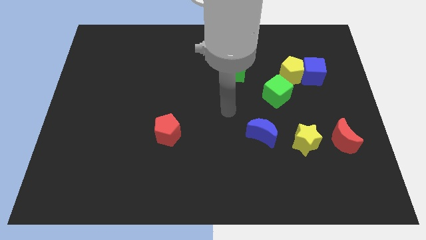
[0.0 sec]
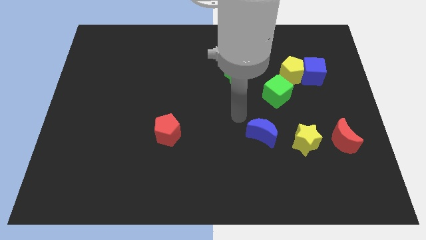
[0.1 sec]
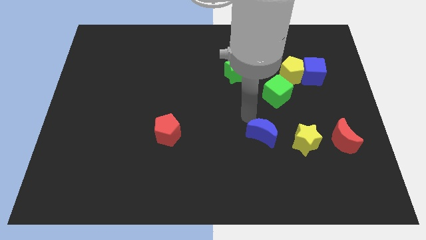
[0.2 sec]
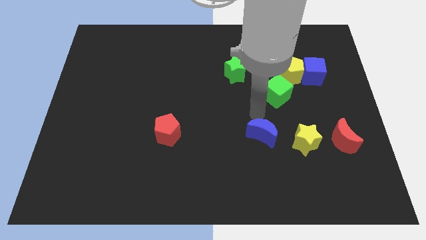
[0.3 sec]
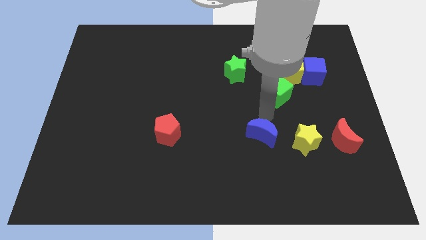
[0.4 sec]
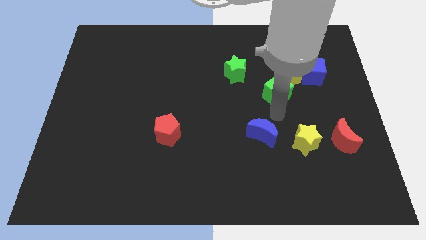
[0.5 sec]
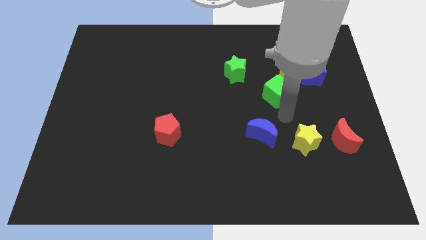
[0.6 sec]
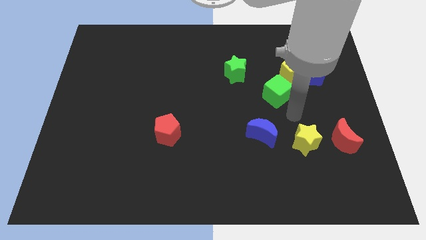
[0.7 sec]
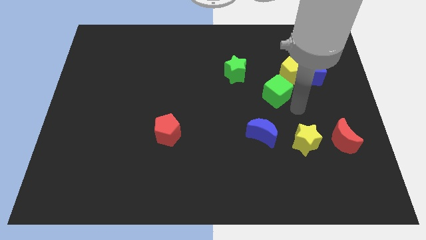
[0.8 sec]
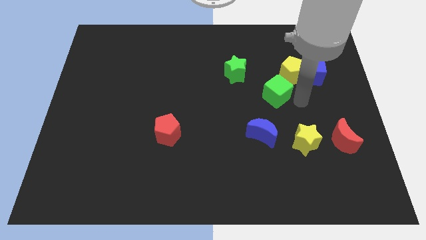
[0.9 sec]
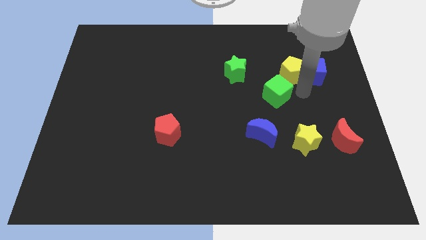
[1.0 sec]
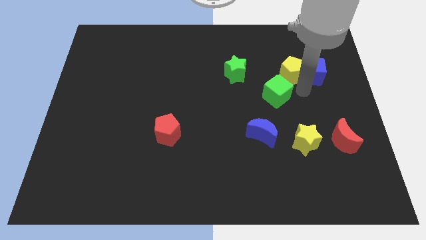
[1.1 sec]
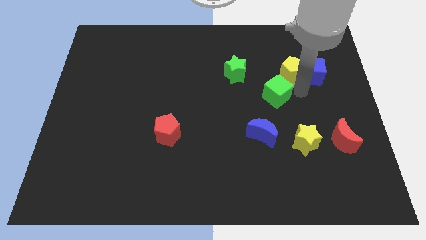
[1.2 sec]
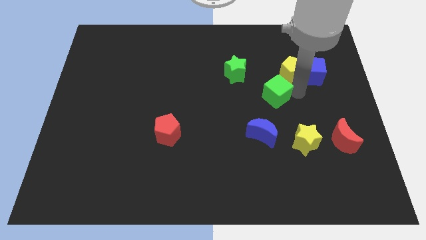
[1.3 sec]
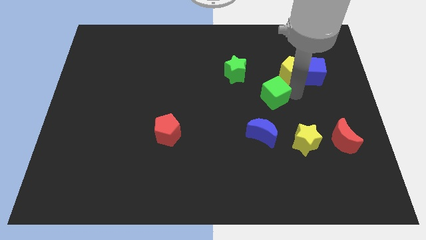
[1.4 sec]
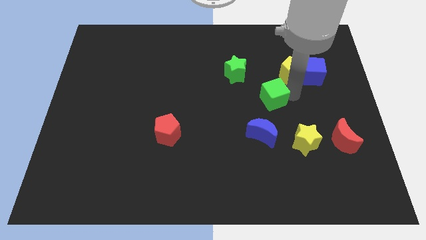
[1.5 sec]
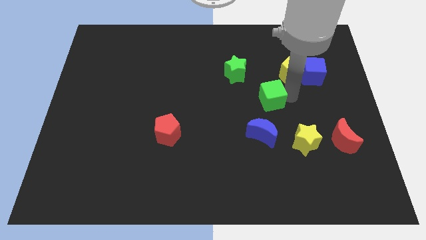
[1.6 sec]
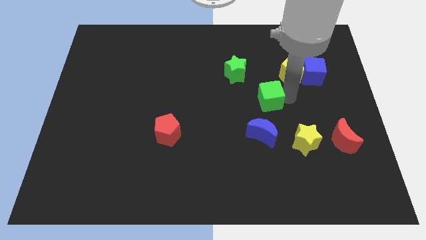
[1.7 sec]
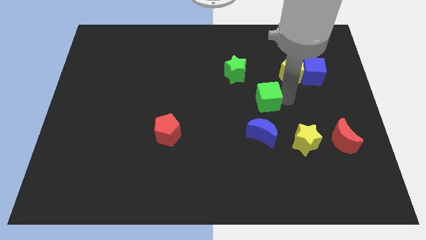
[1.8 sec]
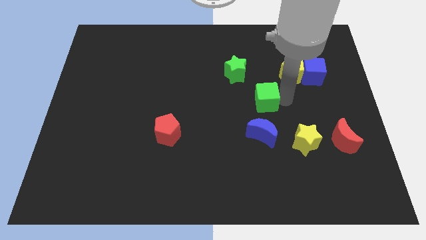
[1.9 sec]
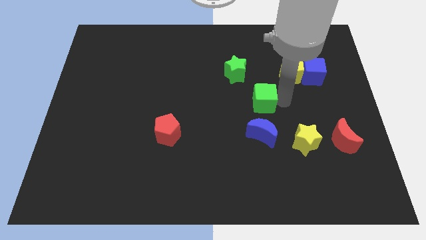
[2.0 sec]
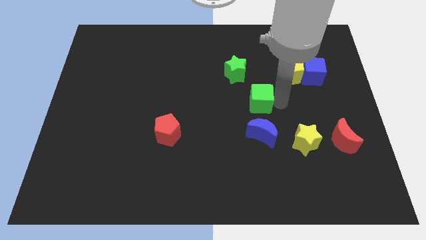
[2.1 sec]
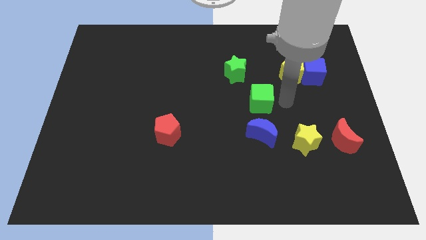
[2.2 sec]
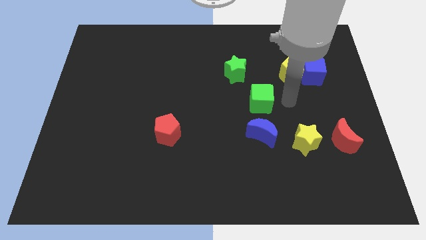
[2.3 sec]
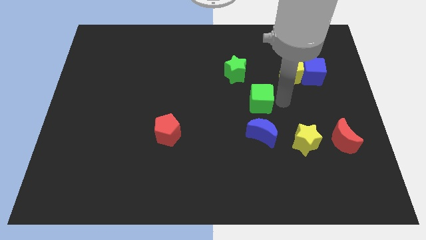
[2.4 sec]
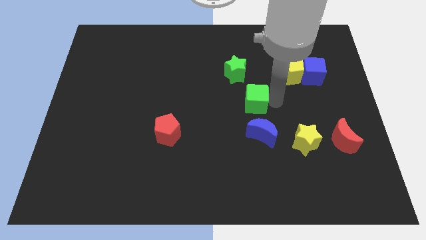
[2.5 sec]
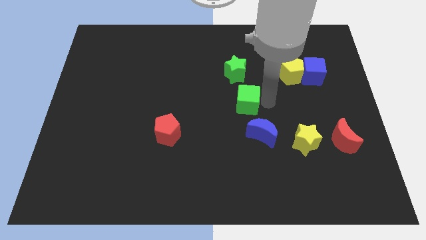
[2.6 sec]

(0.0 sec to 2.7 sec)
slide the green cube a little bit left

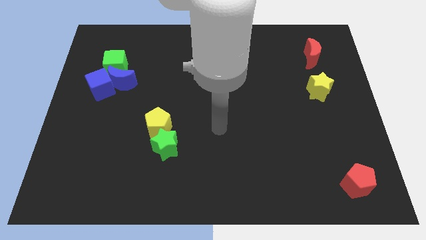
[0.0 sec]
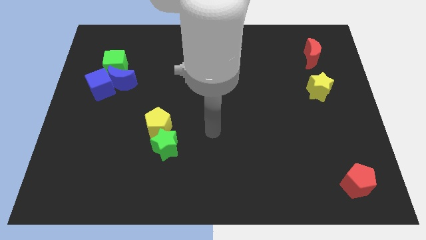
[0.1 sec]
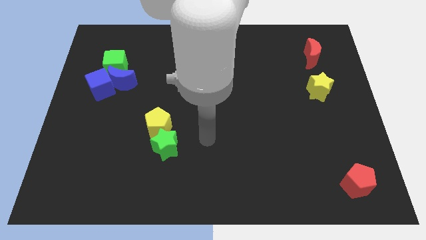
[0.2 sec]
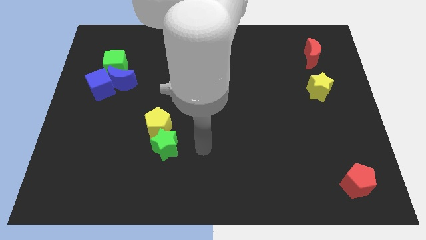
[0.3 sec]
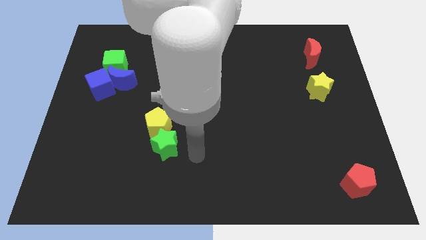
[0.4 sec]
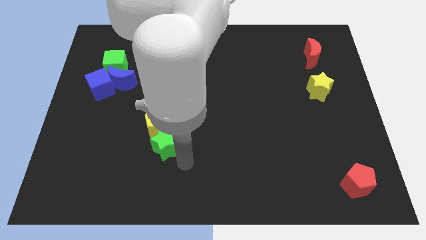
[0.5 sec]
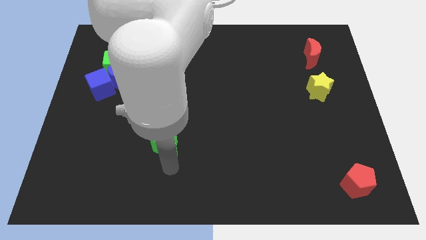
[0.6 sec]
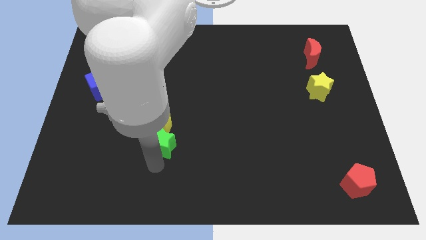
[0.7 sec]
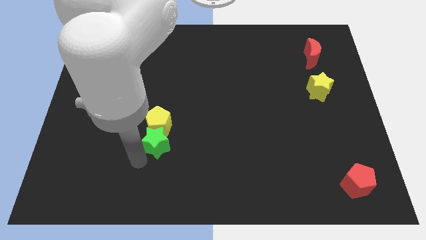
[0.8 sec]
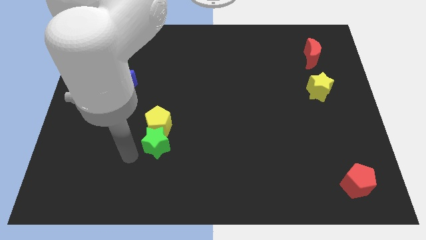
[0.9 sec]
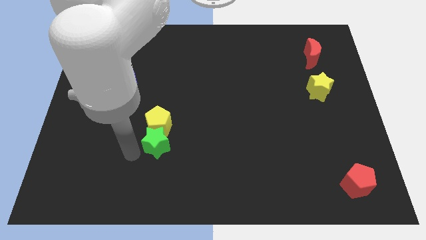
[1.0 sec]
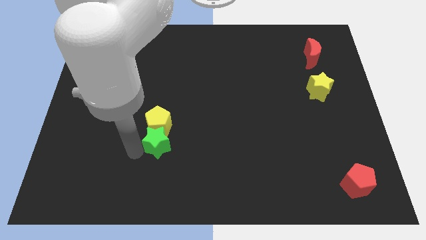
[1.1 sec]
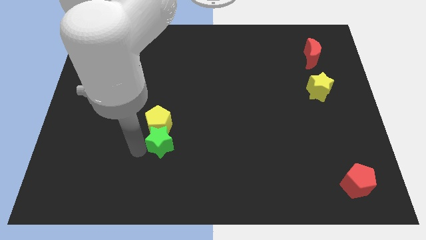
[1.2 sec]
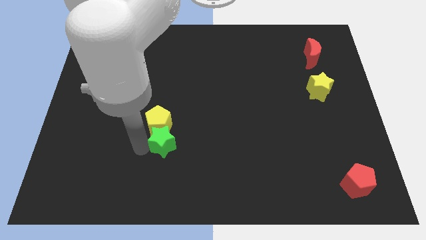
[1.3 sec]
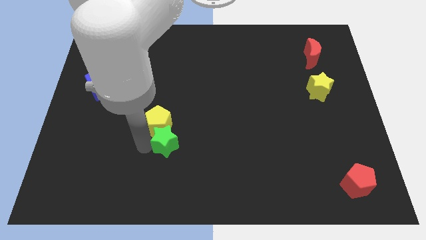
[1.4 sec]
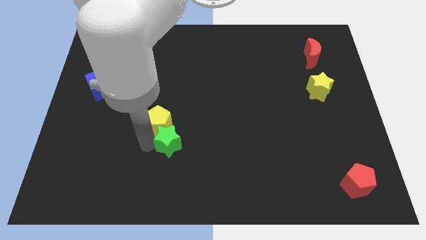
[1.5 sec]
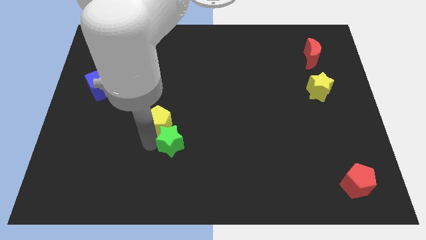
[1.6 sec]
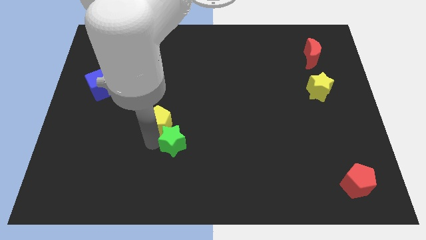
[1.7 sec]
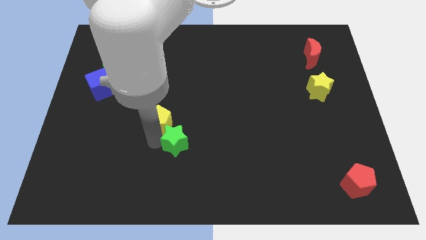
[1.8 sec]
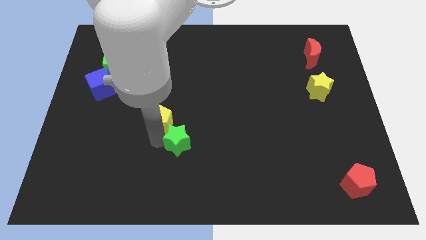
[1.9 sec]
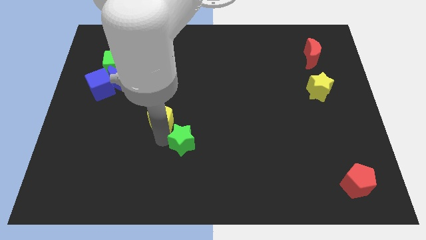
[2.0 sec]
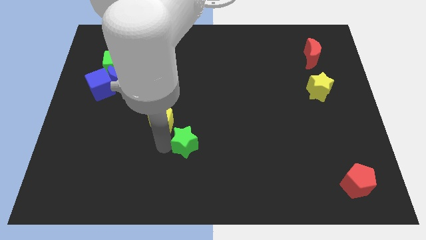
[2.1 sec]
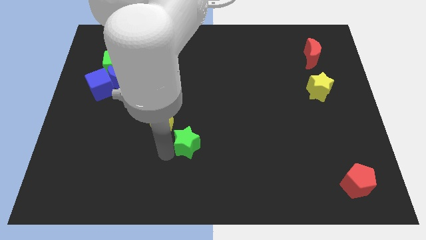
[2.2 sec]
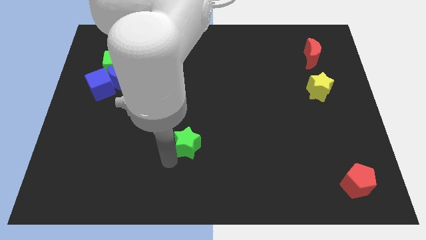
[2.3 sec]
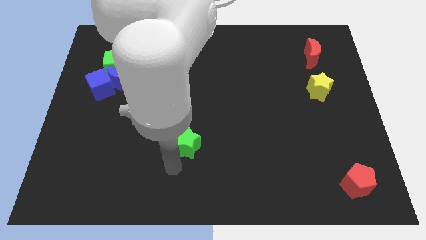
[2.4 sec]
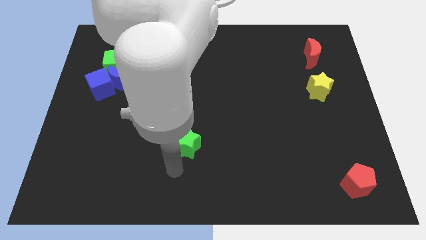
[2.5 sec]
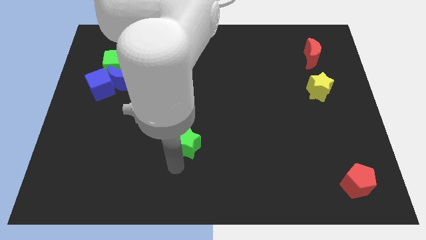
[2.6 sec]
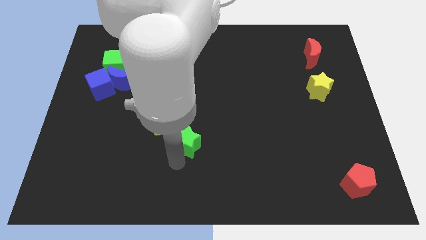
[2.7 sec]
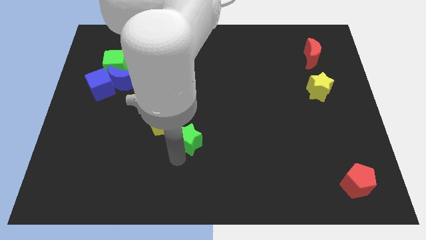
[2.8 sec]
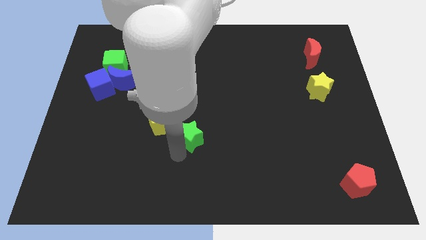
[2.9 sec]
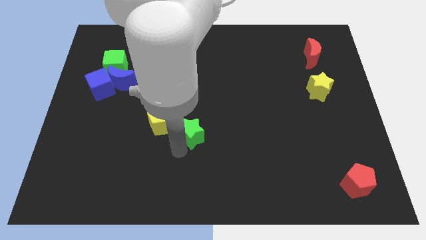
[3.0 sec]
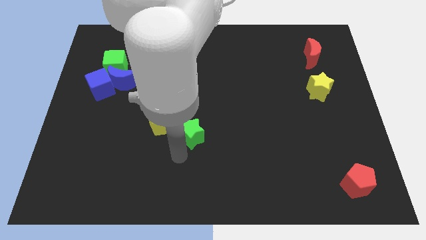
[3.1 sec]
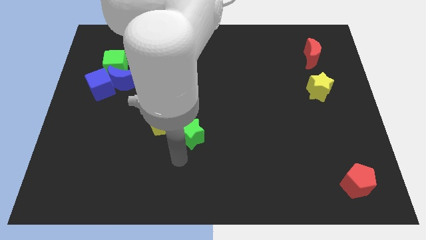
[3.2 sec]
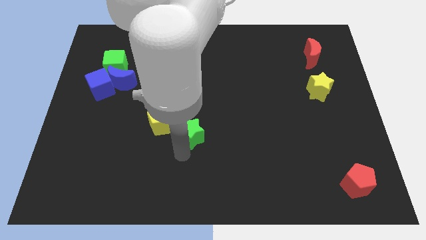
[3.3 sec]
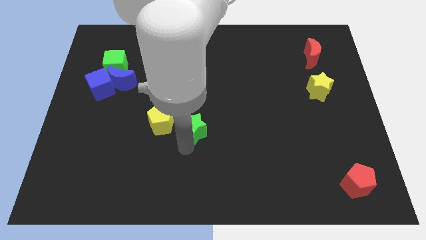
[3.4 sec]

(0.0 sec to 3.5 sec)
push the green star a little upwards and right

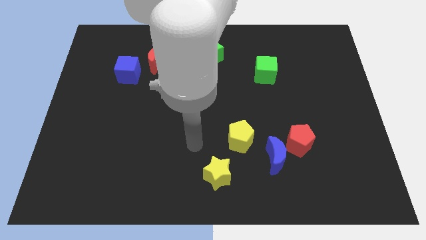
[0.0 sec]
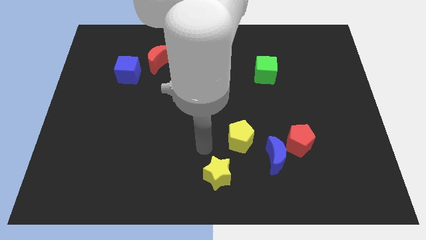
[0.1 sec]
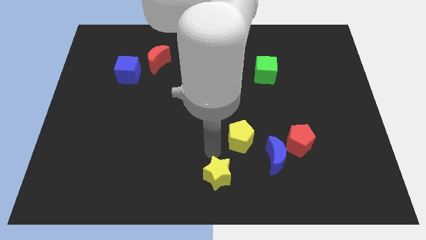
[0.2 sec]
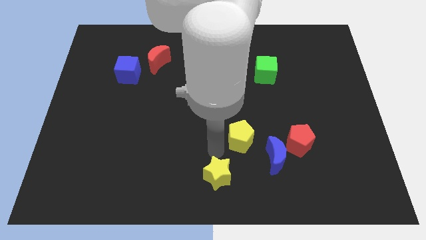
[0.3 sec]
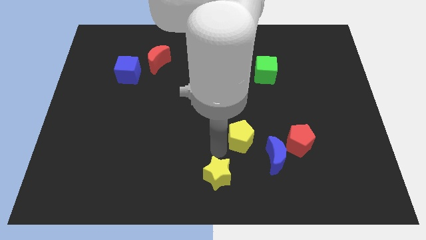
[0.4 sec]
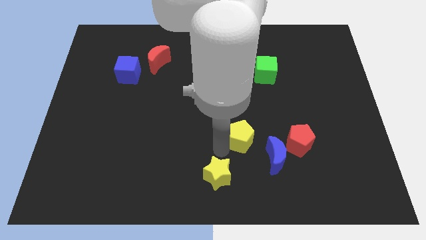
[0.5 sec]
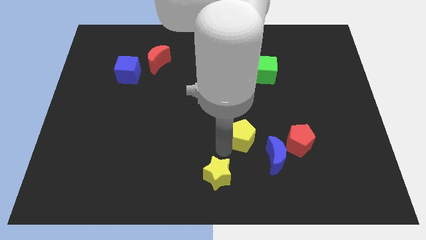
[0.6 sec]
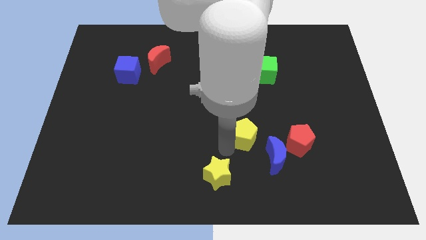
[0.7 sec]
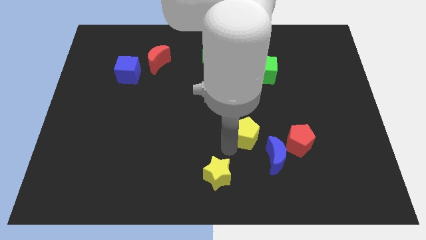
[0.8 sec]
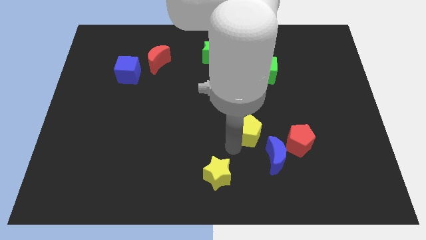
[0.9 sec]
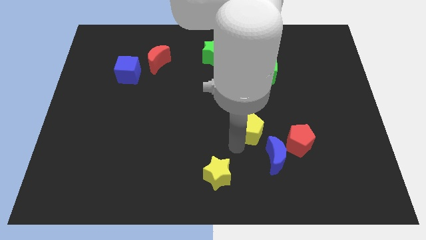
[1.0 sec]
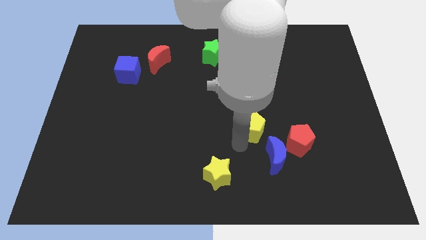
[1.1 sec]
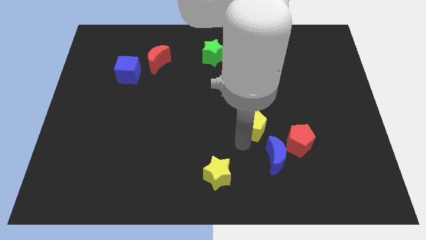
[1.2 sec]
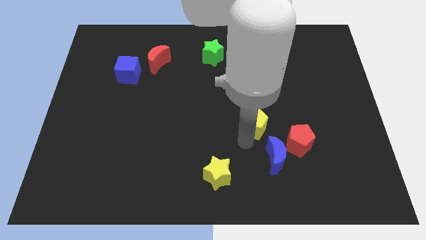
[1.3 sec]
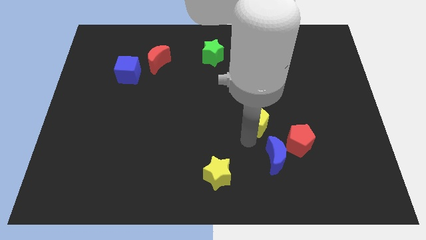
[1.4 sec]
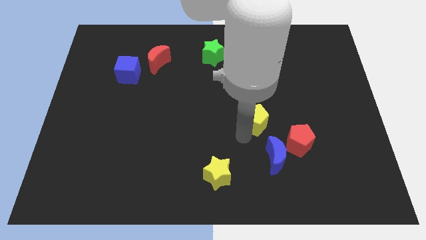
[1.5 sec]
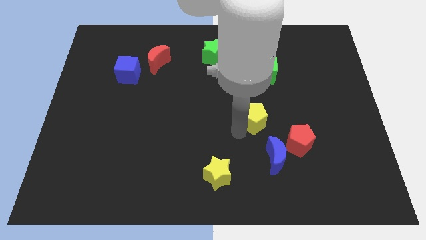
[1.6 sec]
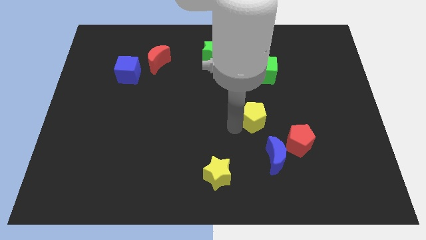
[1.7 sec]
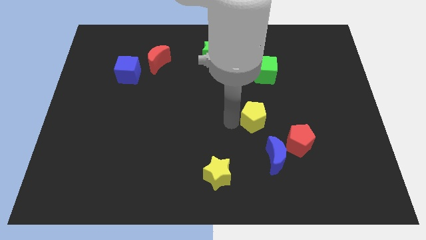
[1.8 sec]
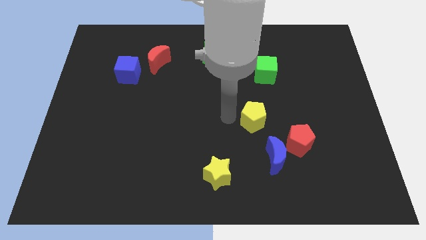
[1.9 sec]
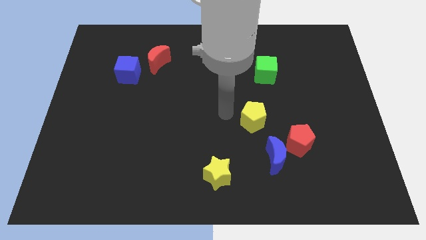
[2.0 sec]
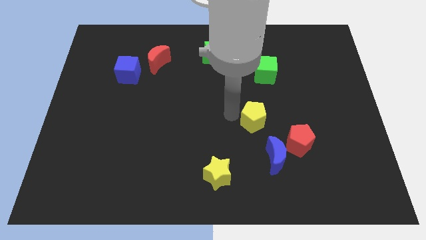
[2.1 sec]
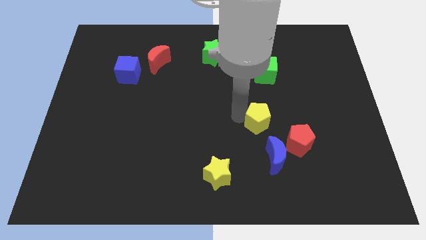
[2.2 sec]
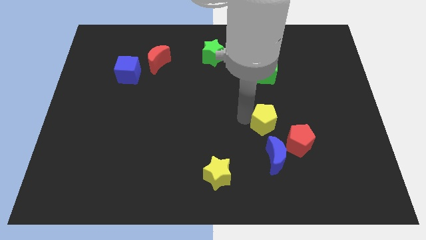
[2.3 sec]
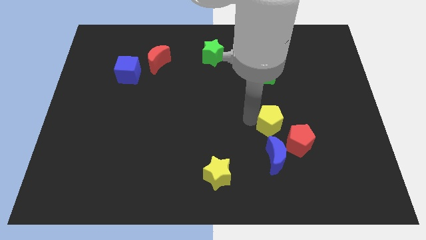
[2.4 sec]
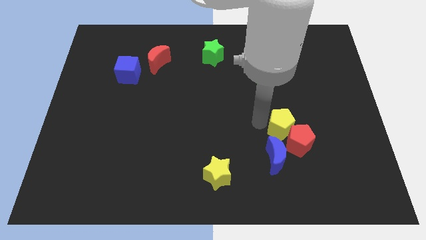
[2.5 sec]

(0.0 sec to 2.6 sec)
slide the yellow pentagon to the right a little bit
